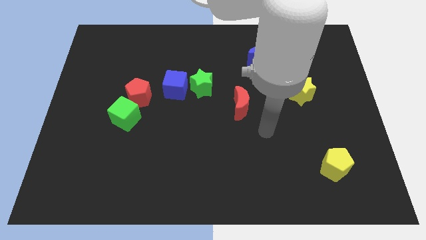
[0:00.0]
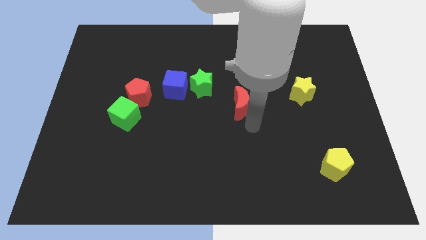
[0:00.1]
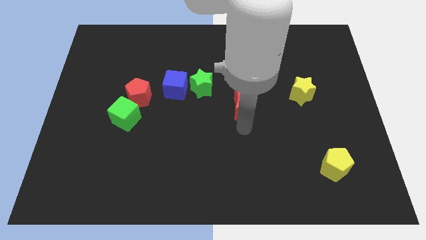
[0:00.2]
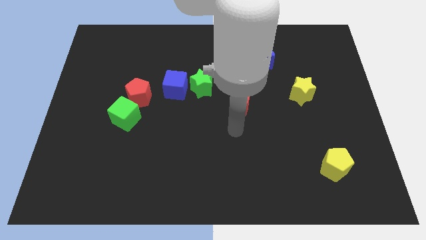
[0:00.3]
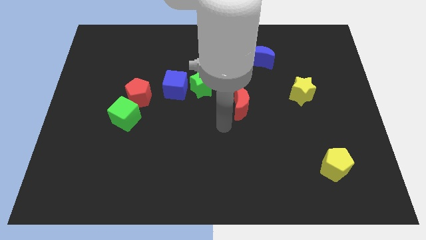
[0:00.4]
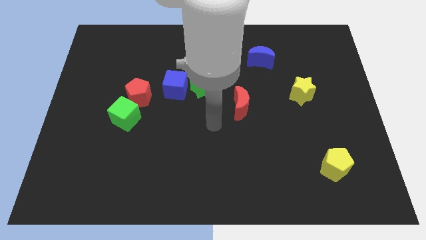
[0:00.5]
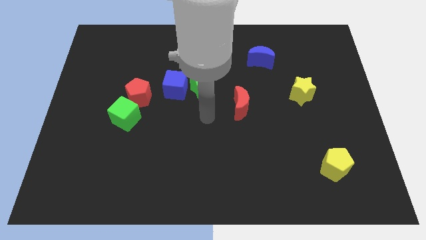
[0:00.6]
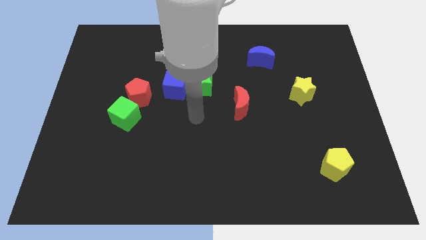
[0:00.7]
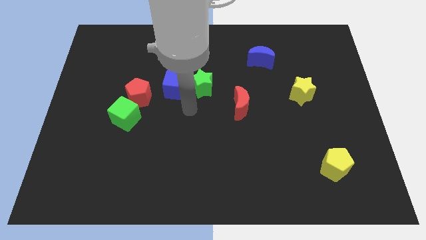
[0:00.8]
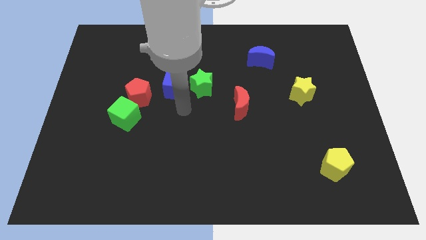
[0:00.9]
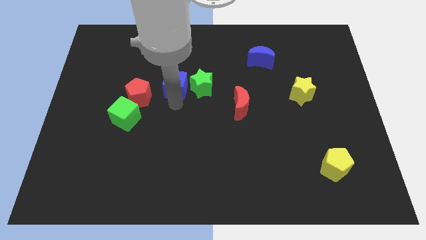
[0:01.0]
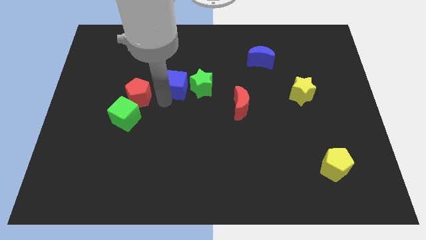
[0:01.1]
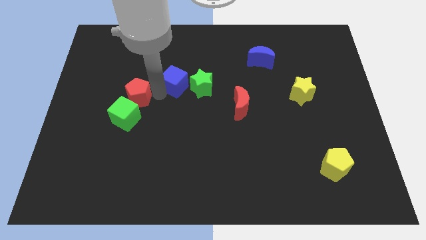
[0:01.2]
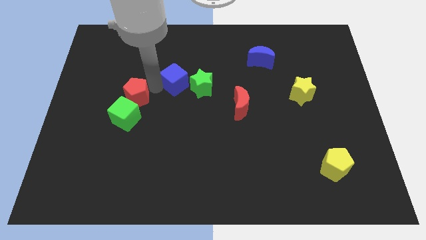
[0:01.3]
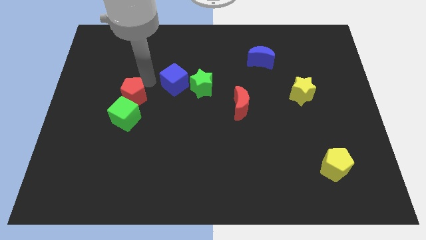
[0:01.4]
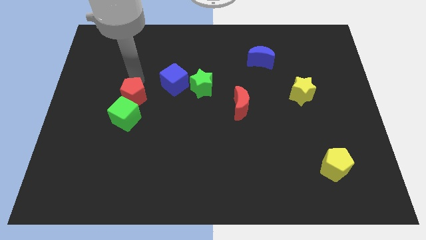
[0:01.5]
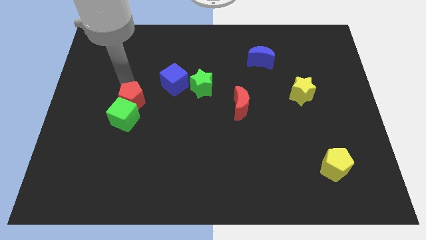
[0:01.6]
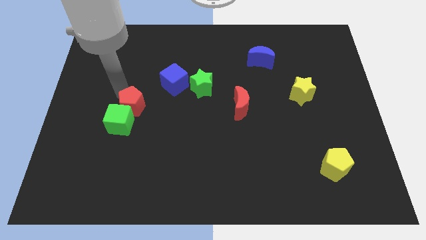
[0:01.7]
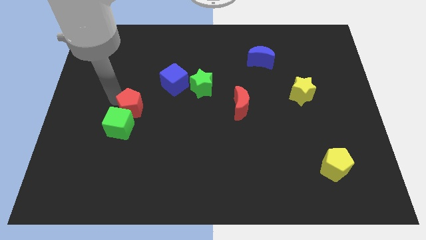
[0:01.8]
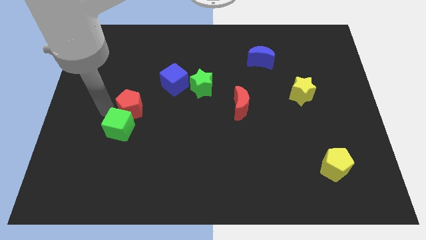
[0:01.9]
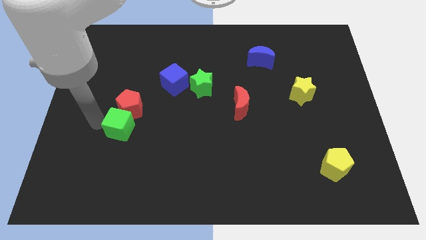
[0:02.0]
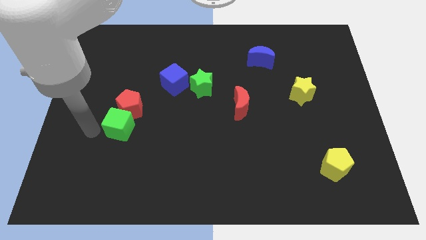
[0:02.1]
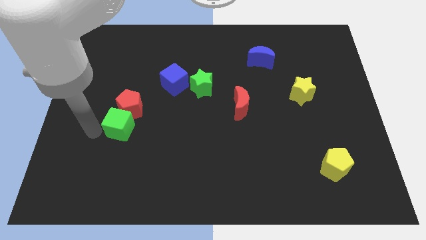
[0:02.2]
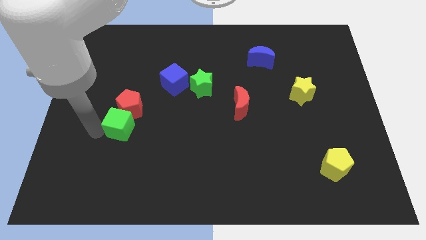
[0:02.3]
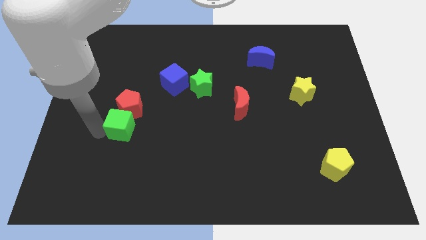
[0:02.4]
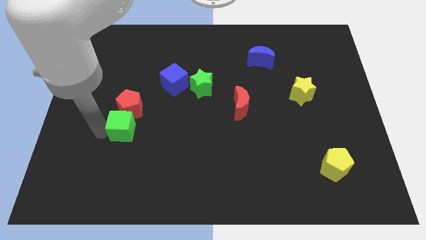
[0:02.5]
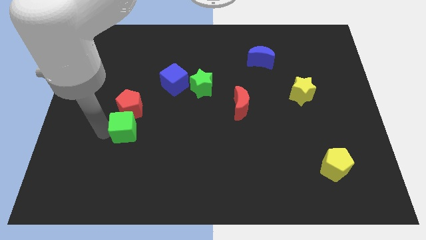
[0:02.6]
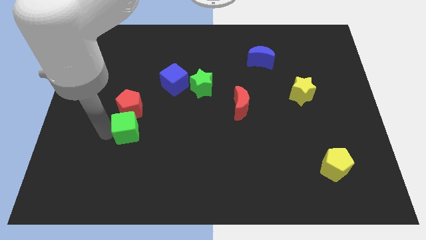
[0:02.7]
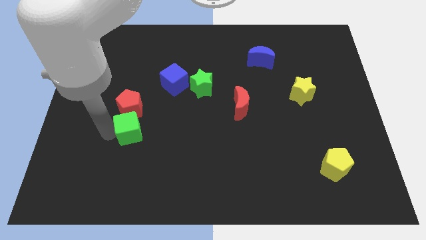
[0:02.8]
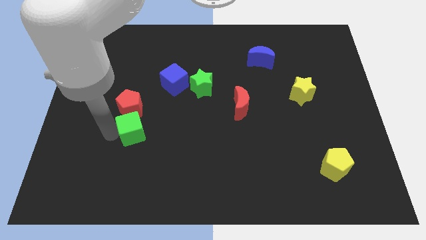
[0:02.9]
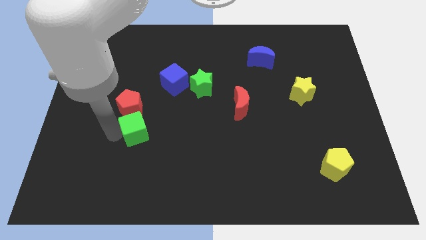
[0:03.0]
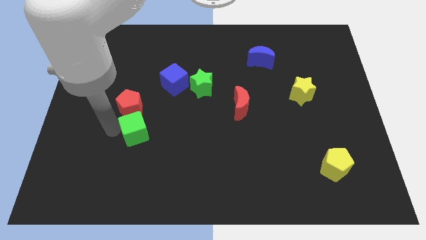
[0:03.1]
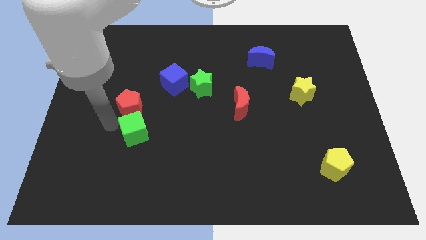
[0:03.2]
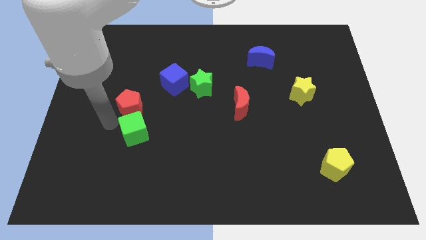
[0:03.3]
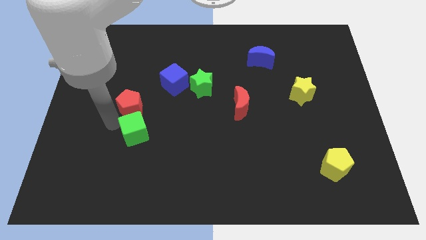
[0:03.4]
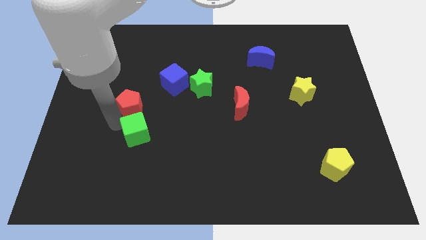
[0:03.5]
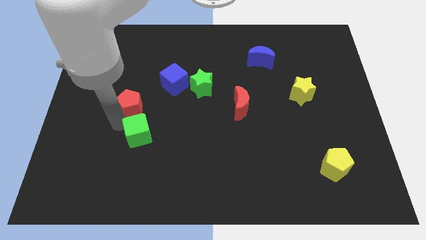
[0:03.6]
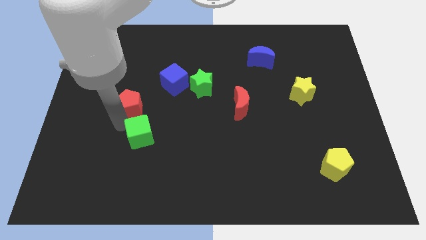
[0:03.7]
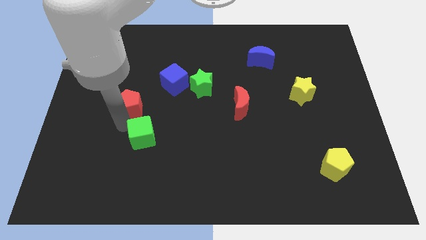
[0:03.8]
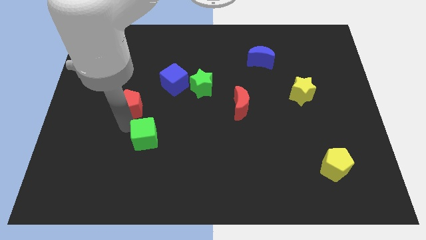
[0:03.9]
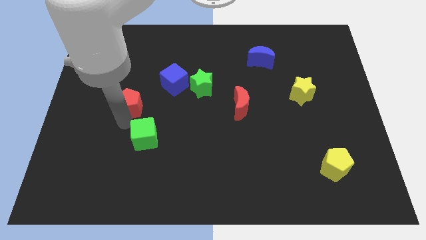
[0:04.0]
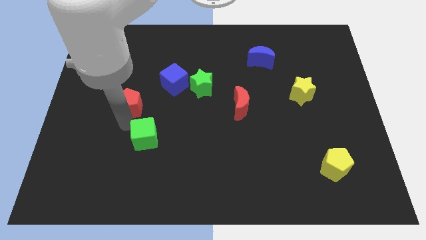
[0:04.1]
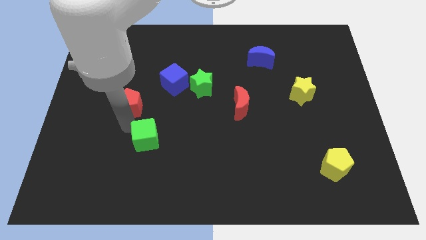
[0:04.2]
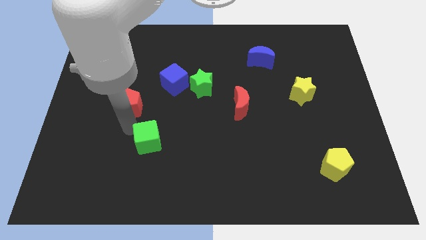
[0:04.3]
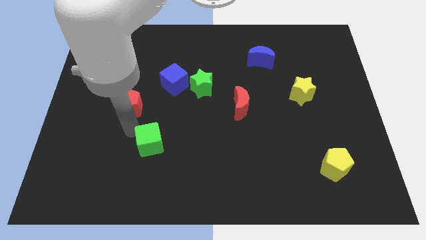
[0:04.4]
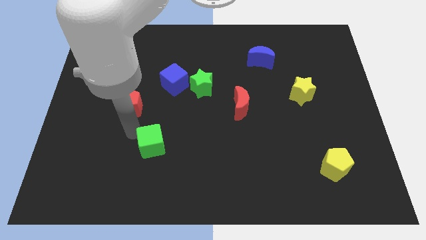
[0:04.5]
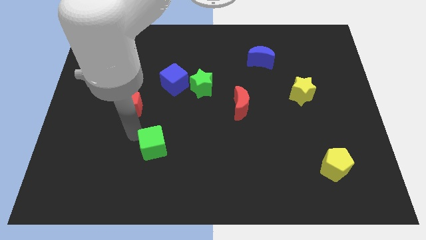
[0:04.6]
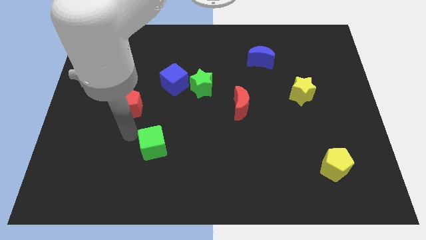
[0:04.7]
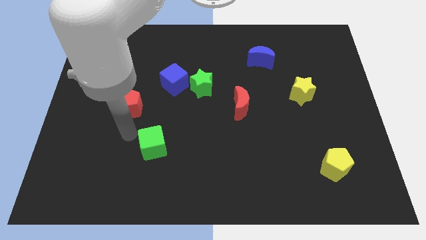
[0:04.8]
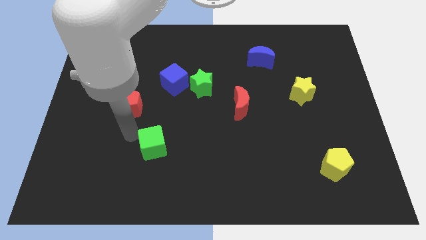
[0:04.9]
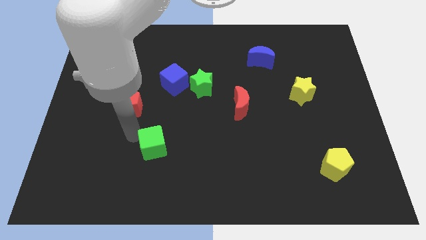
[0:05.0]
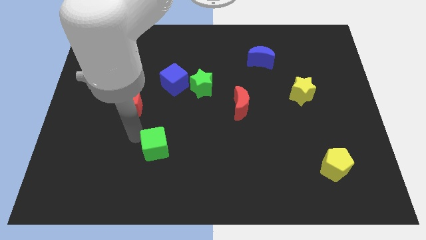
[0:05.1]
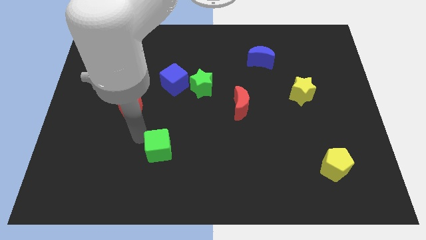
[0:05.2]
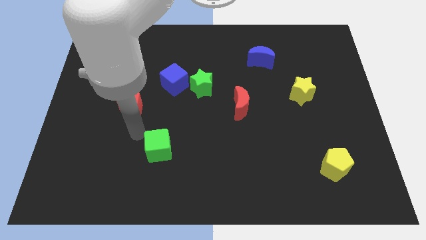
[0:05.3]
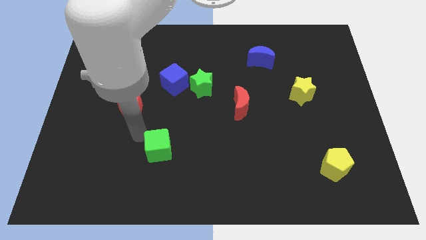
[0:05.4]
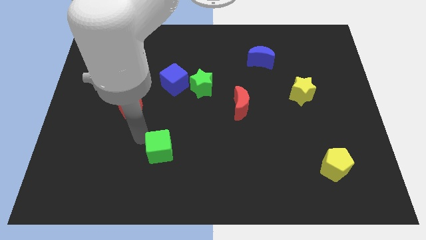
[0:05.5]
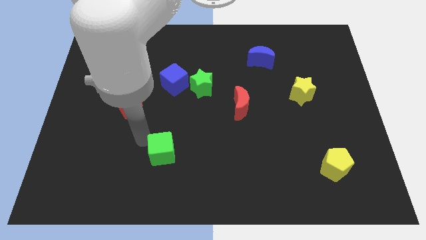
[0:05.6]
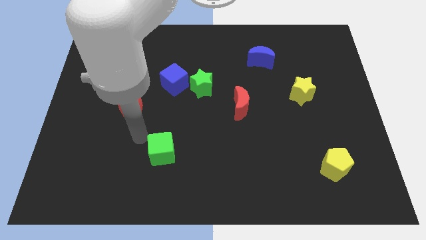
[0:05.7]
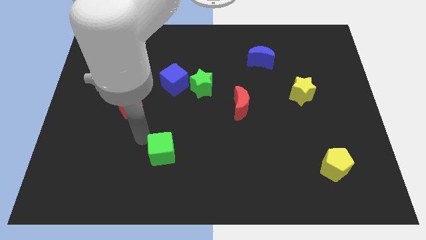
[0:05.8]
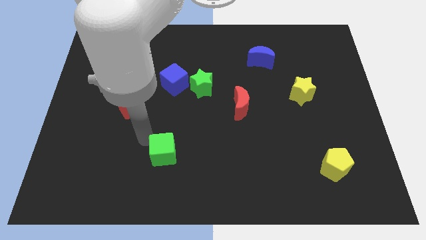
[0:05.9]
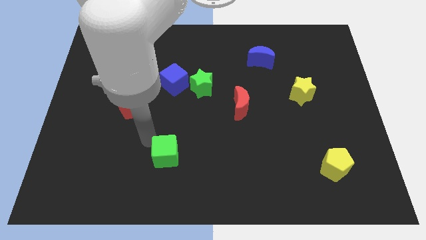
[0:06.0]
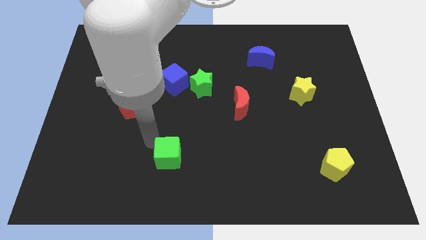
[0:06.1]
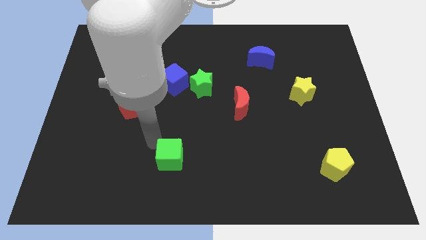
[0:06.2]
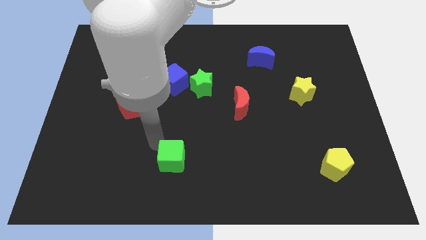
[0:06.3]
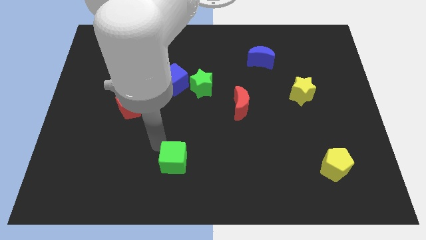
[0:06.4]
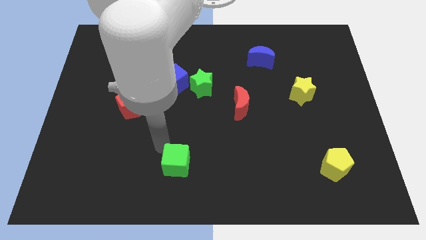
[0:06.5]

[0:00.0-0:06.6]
push the green cube to the bottom
